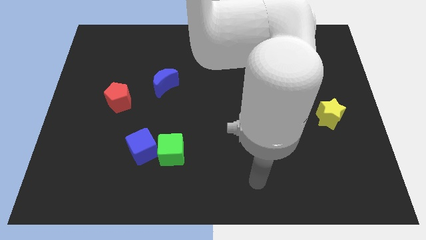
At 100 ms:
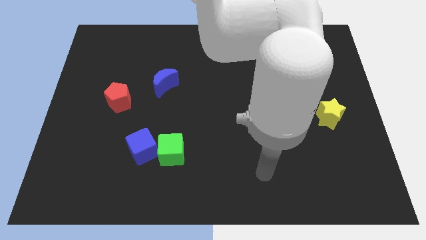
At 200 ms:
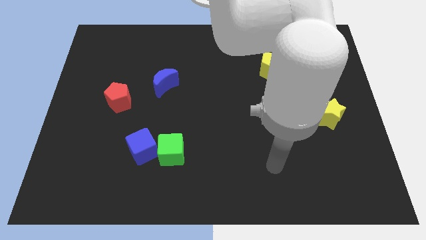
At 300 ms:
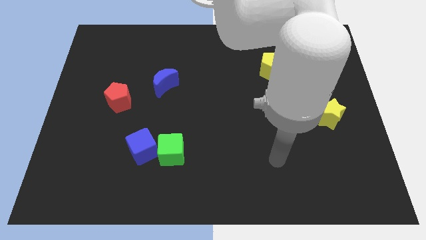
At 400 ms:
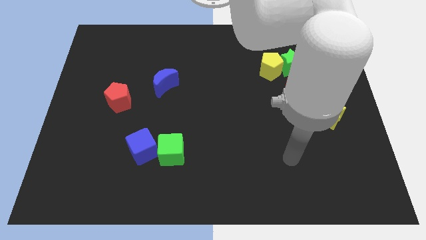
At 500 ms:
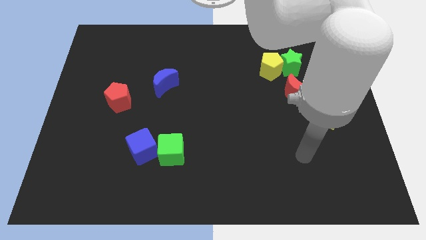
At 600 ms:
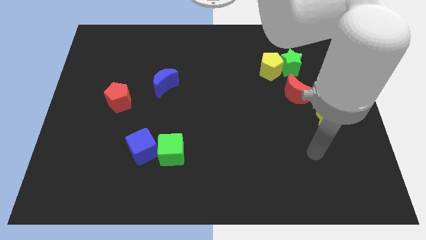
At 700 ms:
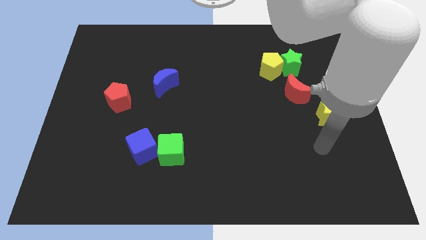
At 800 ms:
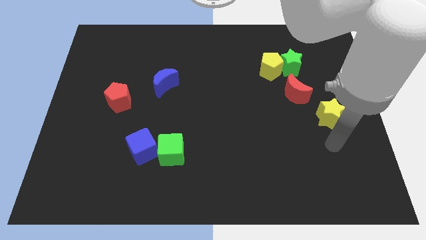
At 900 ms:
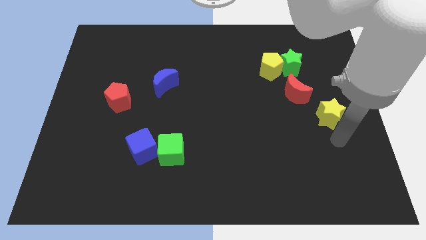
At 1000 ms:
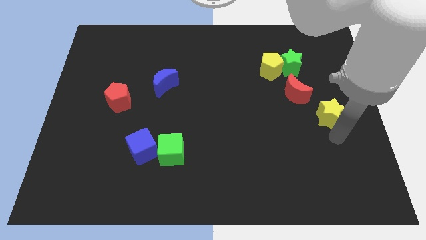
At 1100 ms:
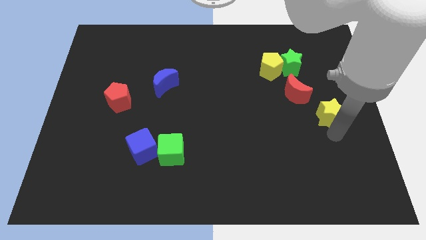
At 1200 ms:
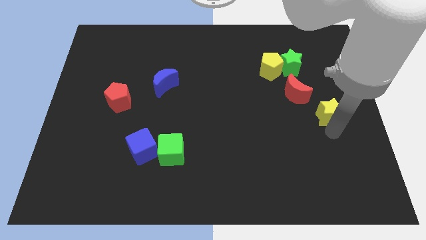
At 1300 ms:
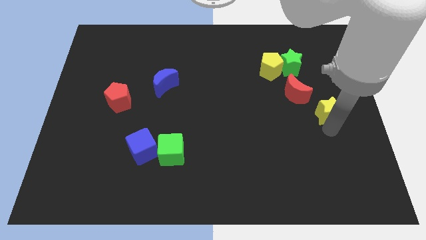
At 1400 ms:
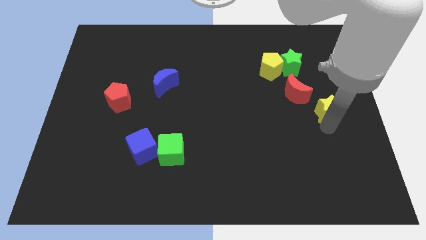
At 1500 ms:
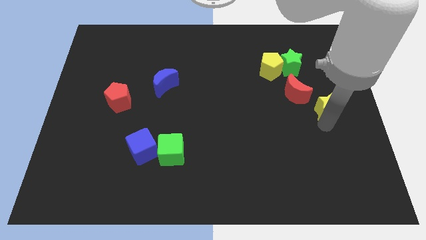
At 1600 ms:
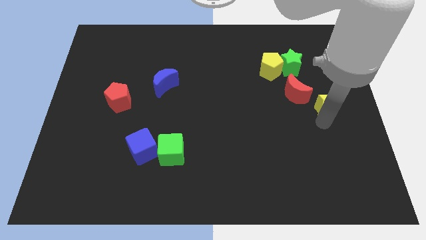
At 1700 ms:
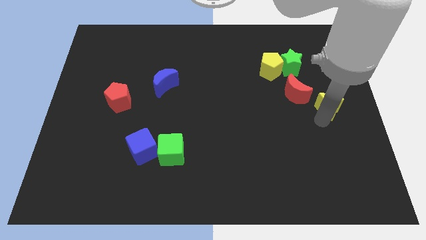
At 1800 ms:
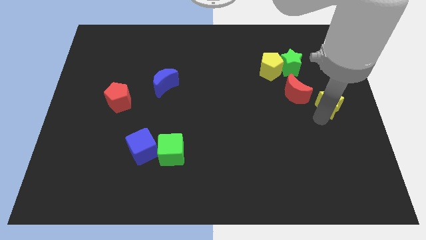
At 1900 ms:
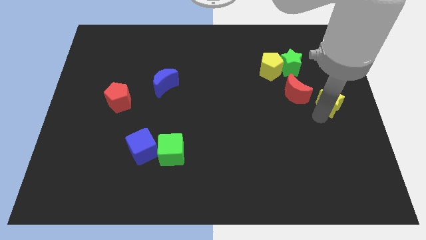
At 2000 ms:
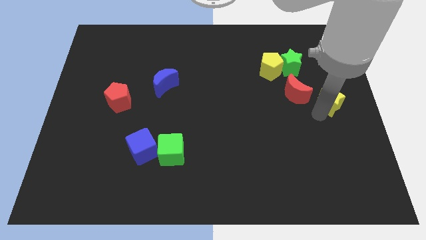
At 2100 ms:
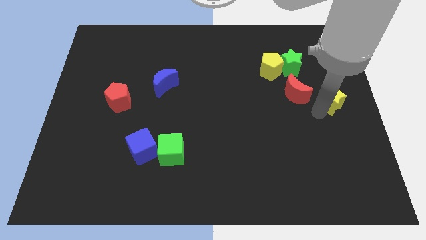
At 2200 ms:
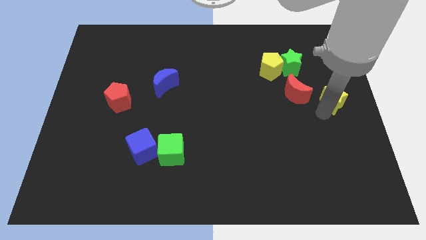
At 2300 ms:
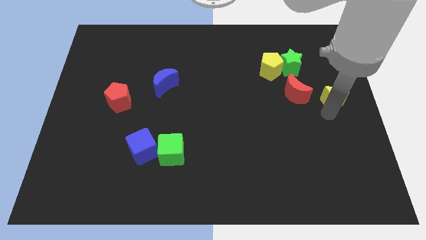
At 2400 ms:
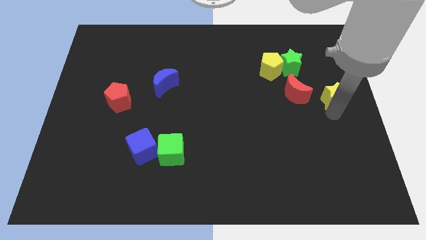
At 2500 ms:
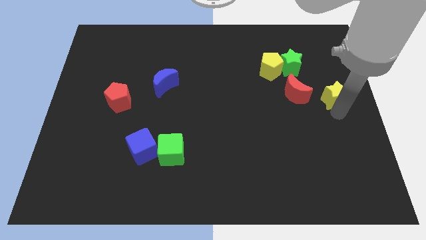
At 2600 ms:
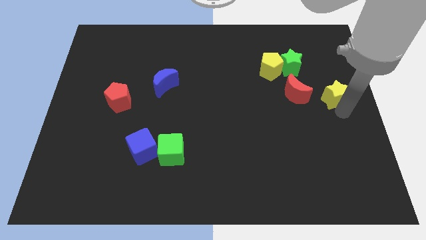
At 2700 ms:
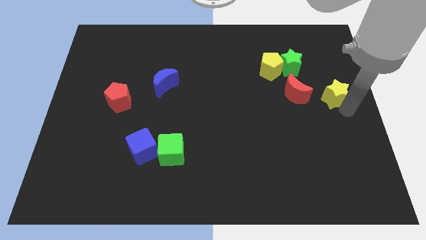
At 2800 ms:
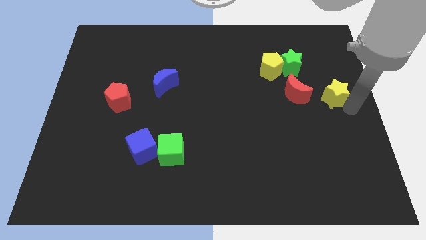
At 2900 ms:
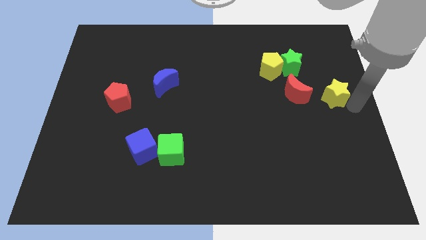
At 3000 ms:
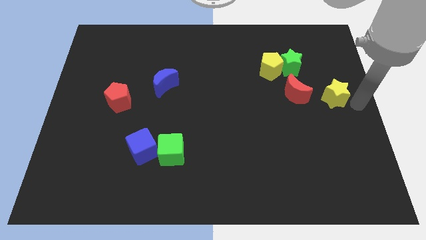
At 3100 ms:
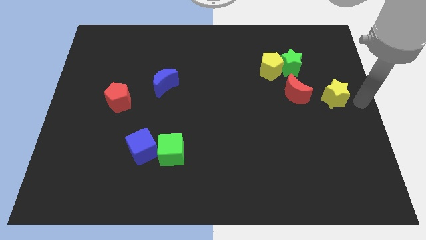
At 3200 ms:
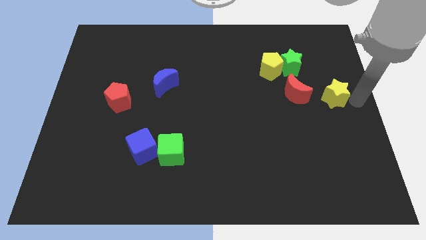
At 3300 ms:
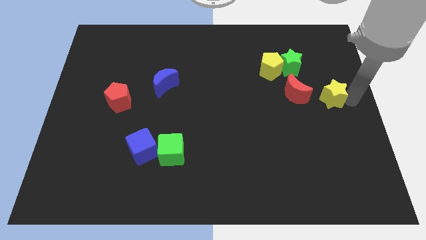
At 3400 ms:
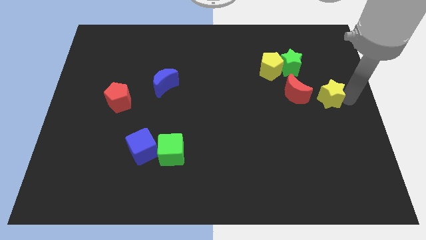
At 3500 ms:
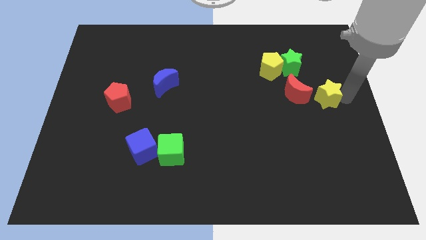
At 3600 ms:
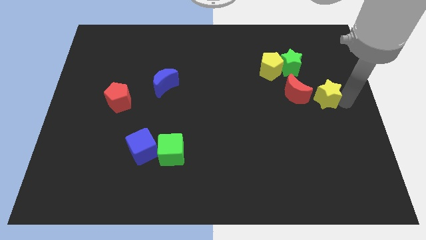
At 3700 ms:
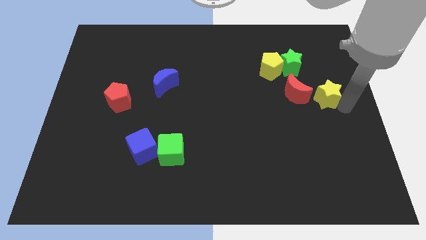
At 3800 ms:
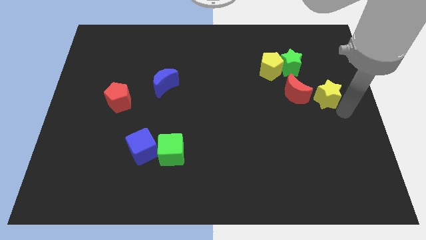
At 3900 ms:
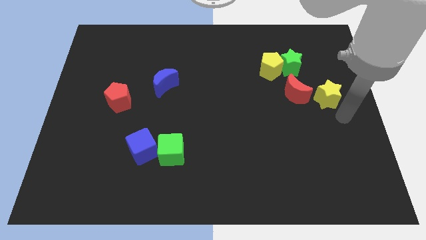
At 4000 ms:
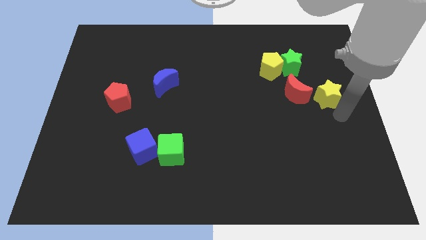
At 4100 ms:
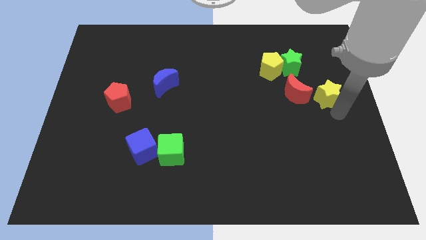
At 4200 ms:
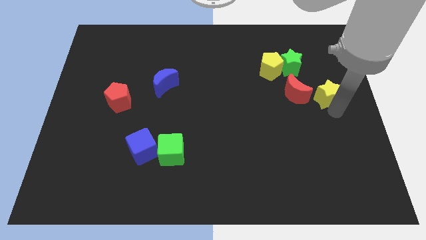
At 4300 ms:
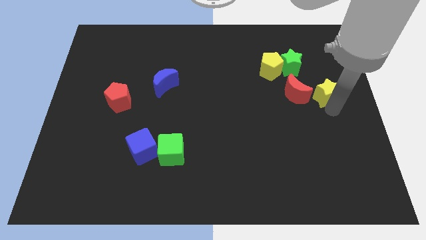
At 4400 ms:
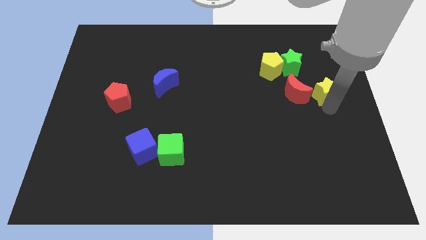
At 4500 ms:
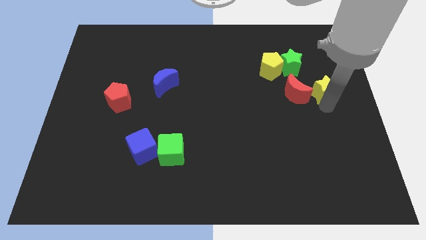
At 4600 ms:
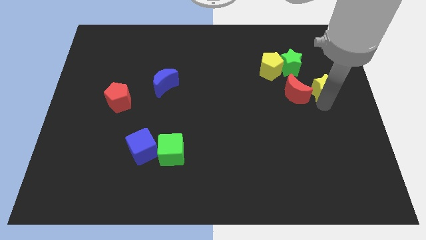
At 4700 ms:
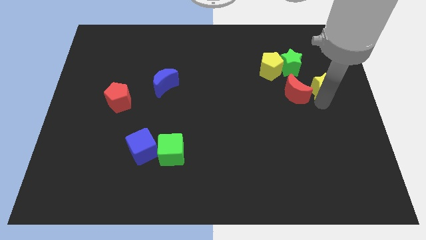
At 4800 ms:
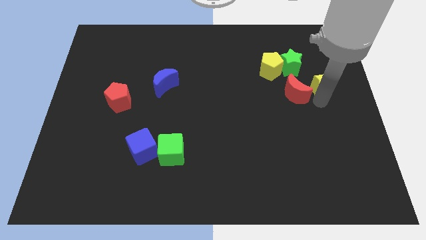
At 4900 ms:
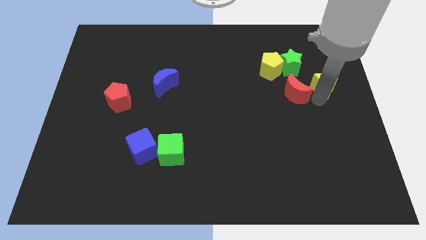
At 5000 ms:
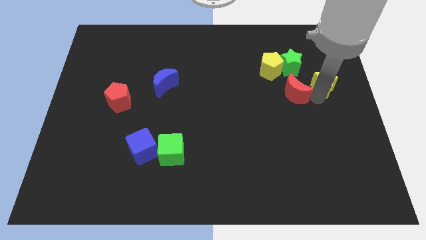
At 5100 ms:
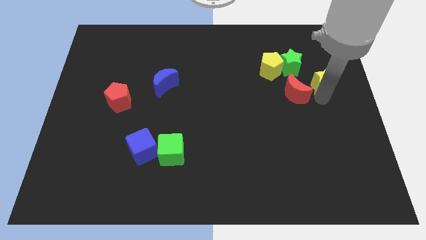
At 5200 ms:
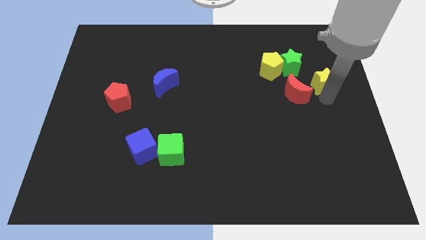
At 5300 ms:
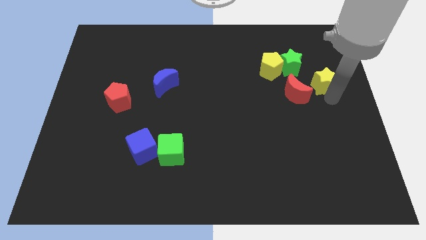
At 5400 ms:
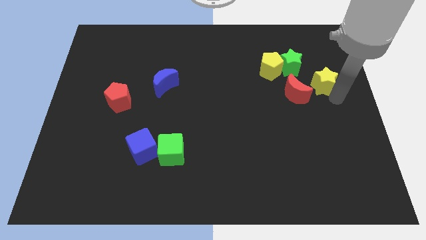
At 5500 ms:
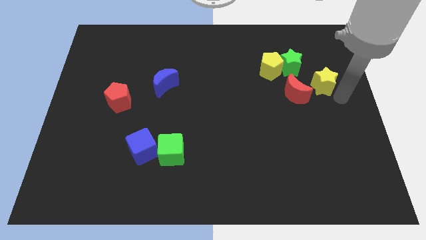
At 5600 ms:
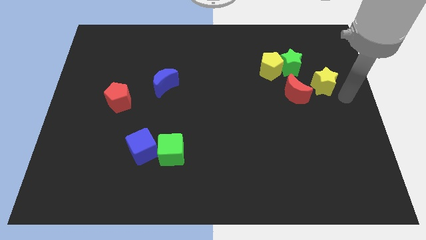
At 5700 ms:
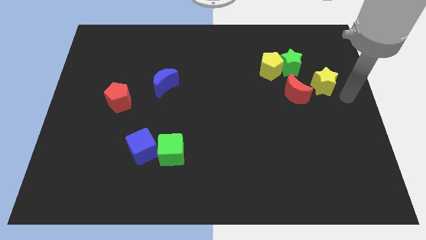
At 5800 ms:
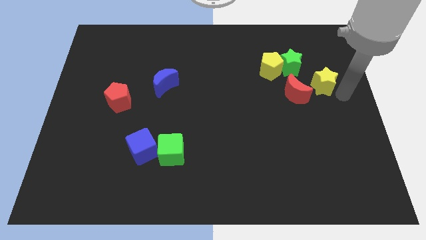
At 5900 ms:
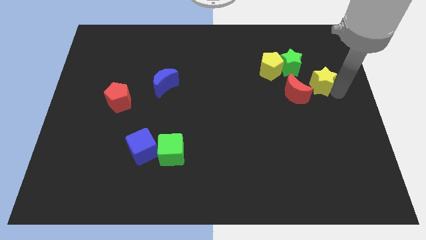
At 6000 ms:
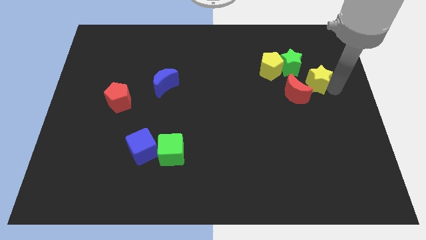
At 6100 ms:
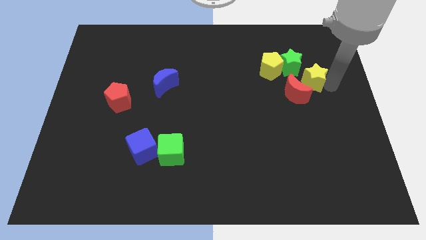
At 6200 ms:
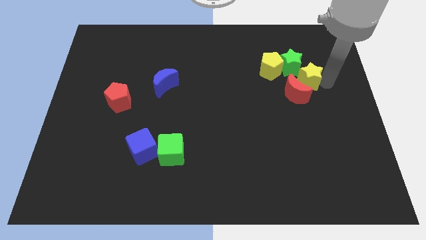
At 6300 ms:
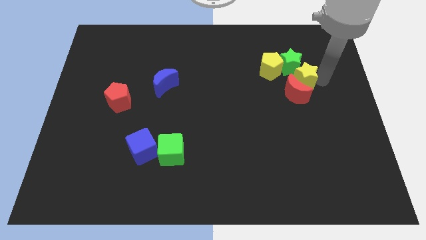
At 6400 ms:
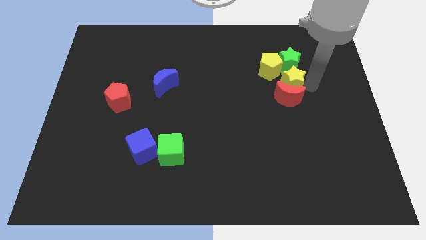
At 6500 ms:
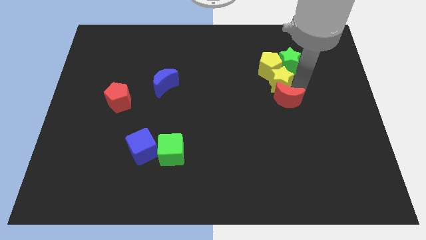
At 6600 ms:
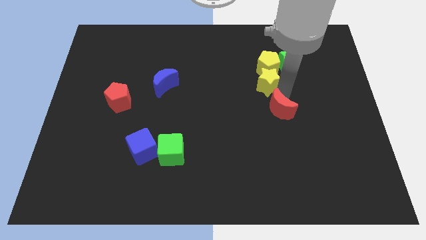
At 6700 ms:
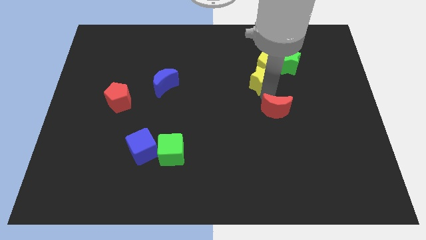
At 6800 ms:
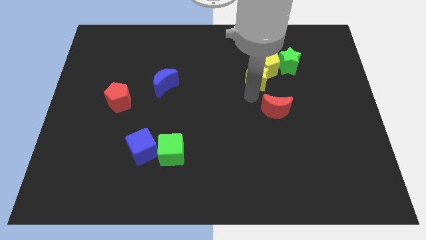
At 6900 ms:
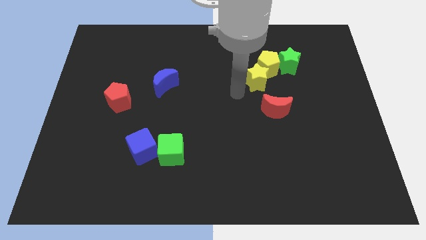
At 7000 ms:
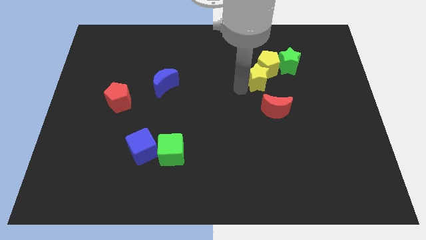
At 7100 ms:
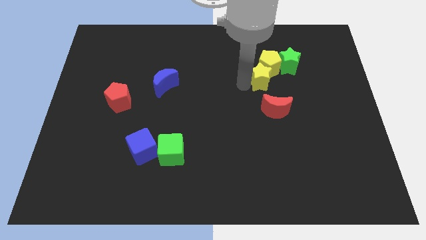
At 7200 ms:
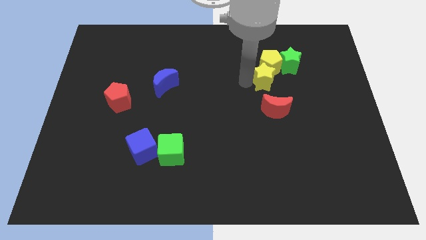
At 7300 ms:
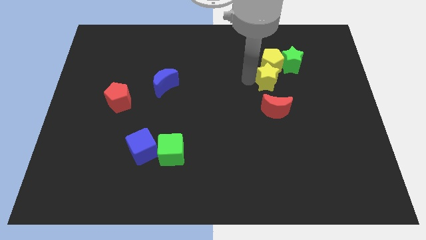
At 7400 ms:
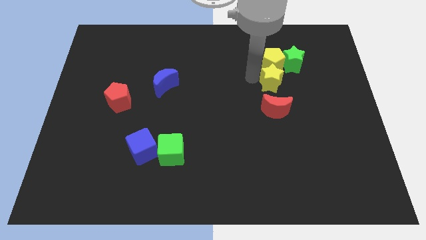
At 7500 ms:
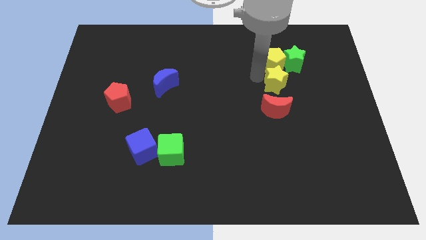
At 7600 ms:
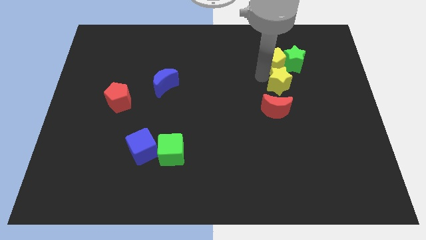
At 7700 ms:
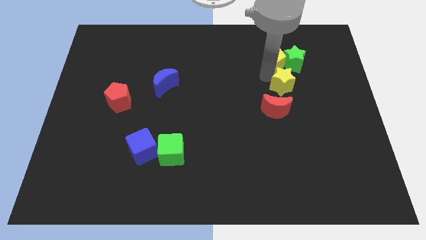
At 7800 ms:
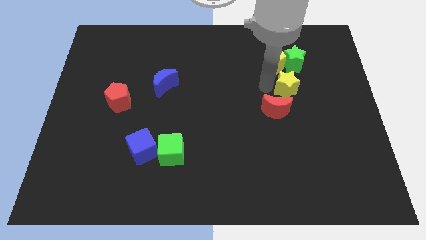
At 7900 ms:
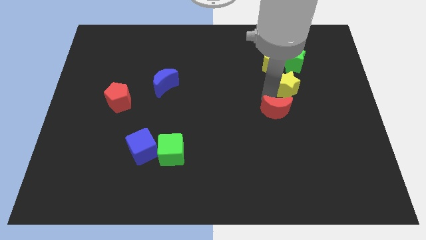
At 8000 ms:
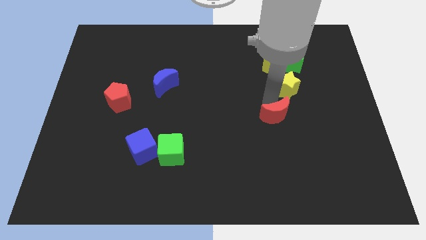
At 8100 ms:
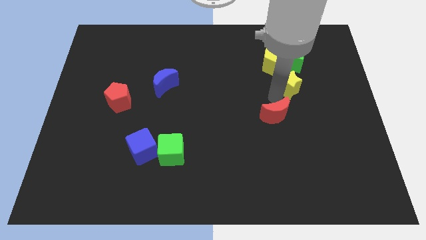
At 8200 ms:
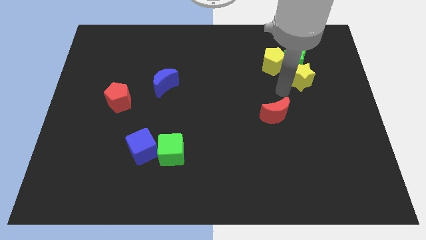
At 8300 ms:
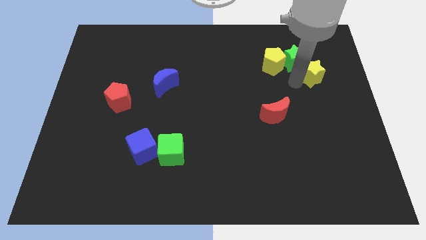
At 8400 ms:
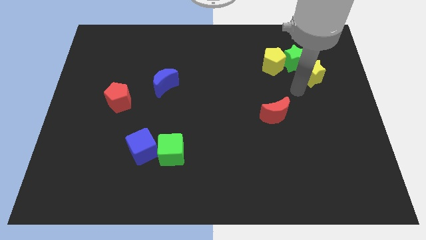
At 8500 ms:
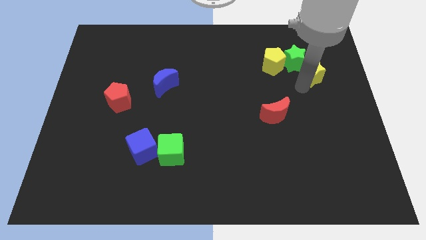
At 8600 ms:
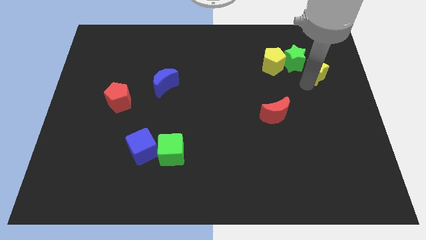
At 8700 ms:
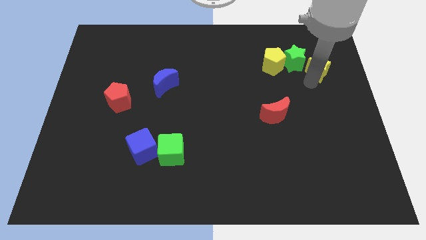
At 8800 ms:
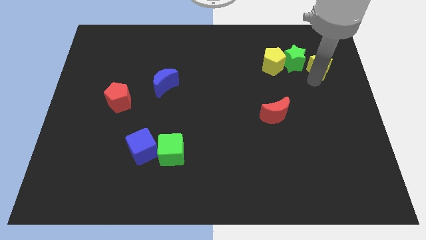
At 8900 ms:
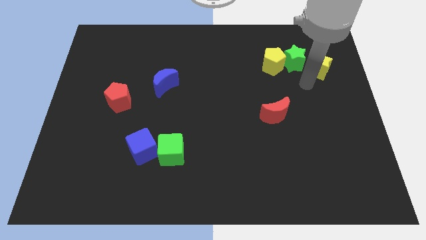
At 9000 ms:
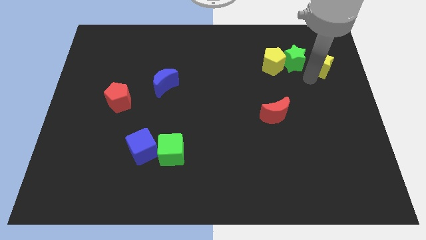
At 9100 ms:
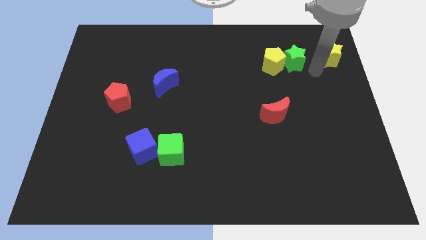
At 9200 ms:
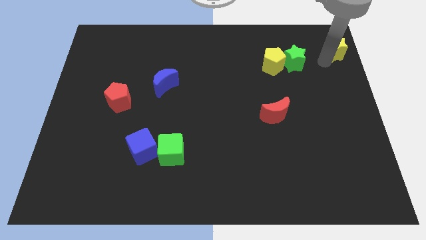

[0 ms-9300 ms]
push the yellow star to the upper right corner
